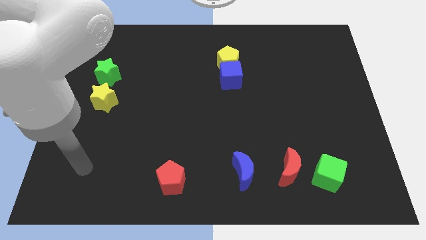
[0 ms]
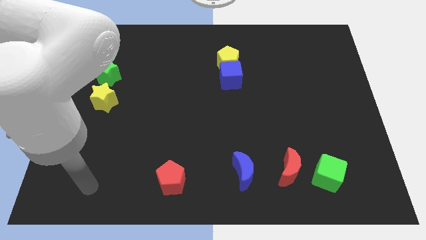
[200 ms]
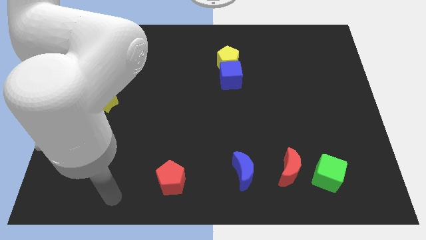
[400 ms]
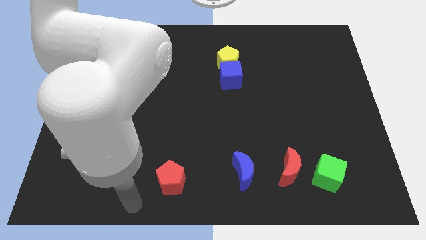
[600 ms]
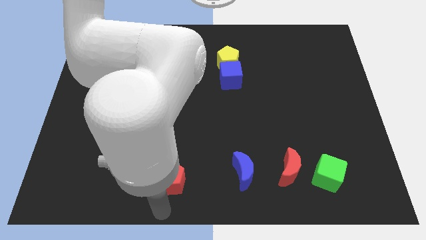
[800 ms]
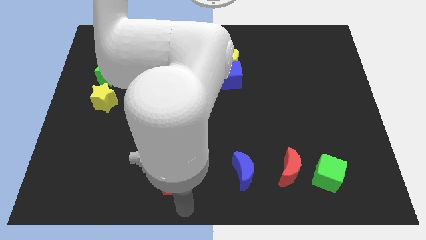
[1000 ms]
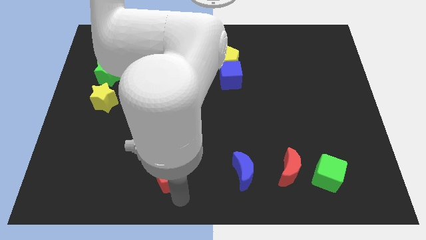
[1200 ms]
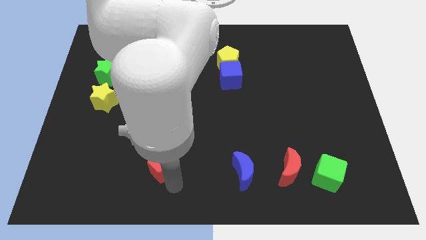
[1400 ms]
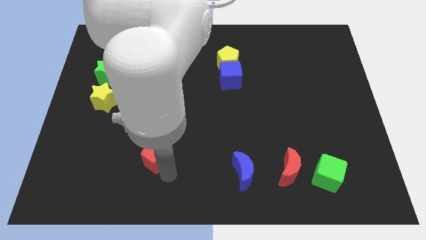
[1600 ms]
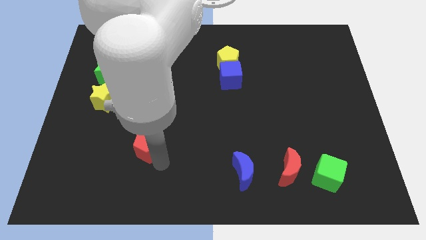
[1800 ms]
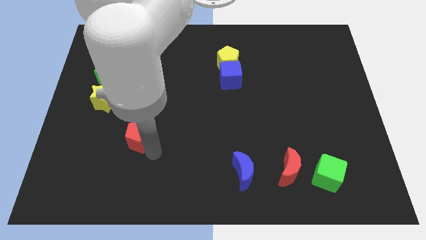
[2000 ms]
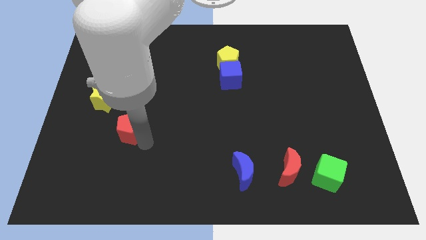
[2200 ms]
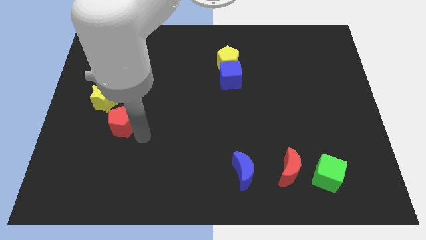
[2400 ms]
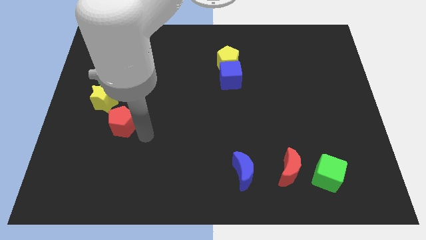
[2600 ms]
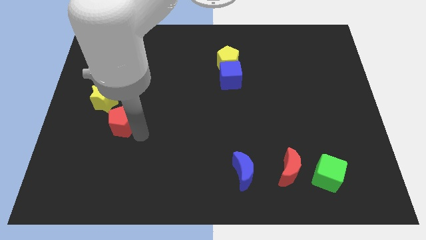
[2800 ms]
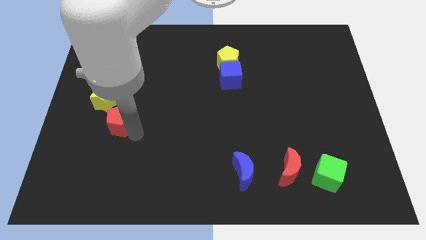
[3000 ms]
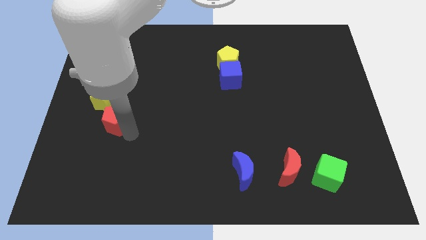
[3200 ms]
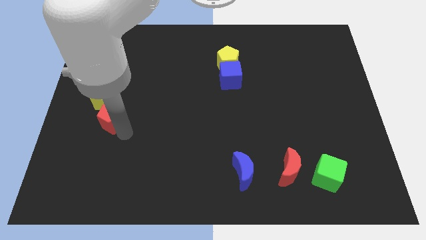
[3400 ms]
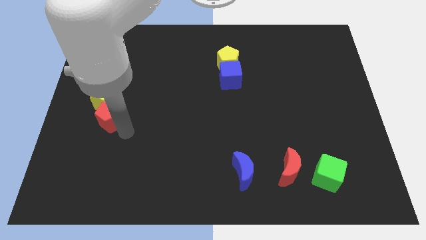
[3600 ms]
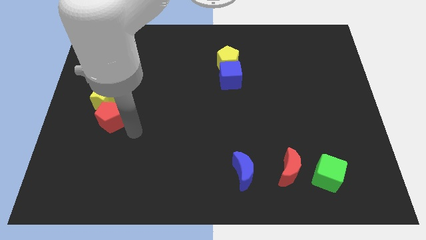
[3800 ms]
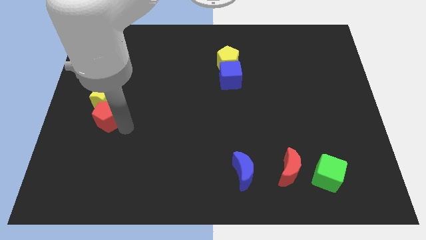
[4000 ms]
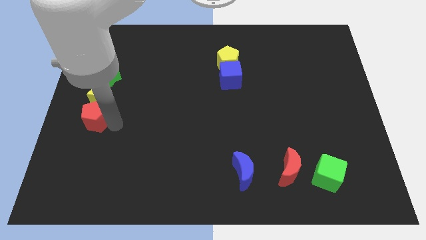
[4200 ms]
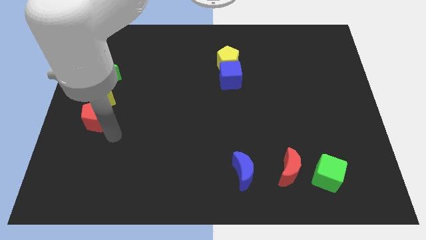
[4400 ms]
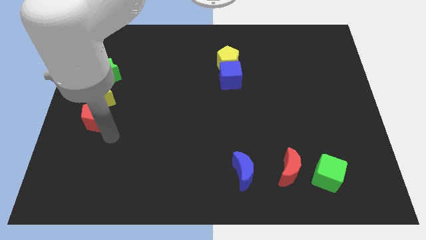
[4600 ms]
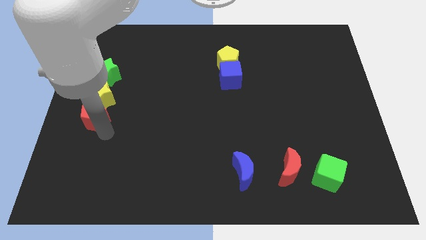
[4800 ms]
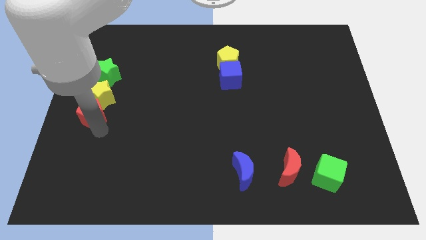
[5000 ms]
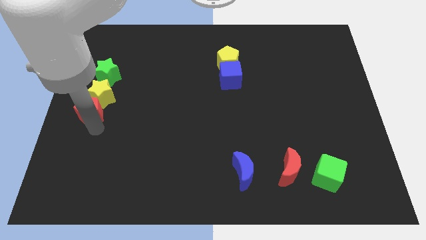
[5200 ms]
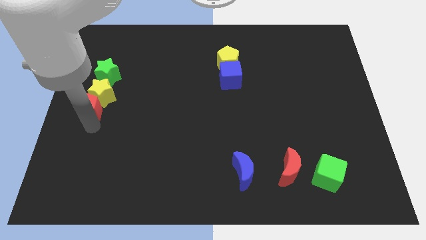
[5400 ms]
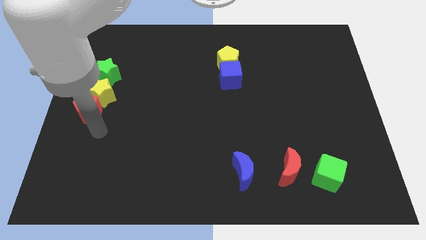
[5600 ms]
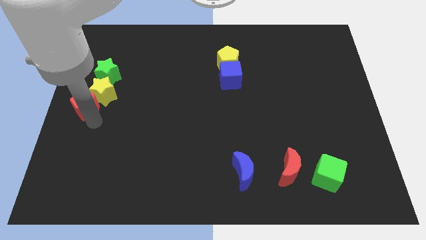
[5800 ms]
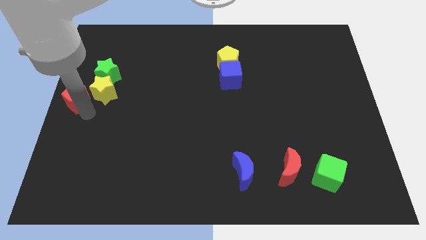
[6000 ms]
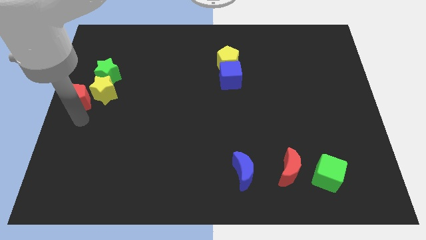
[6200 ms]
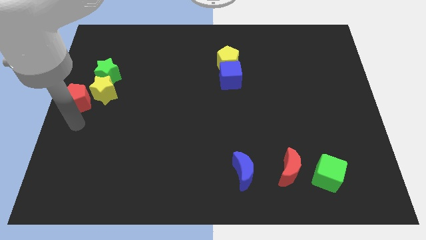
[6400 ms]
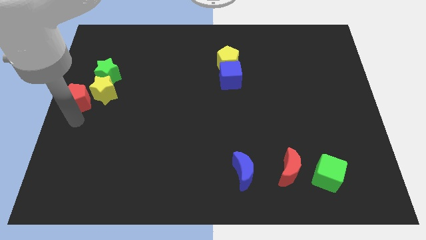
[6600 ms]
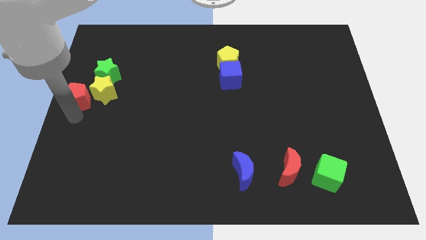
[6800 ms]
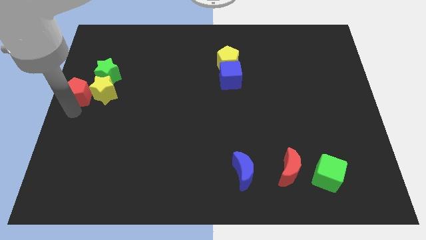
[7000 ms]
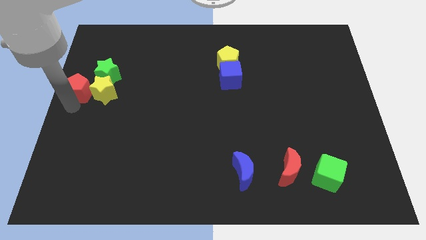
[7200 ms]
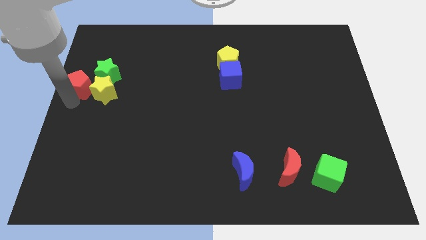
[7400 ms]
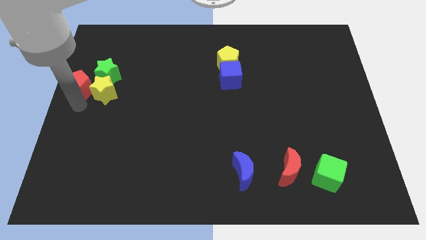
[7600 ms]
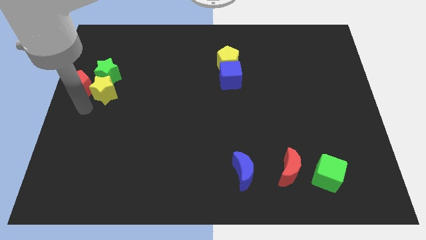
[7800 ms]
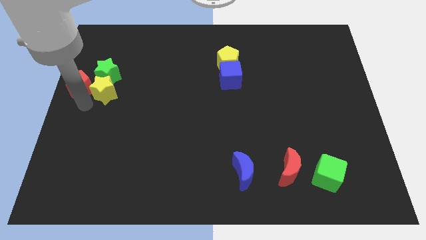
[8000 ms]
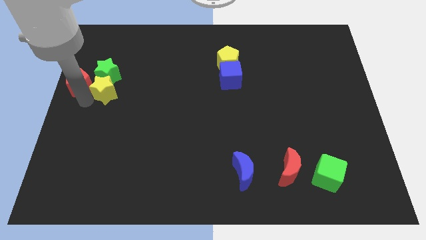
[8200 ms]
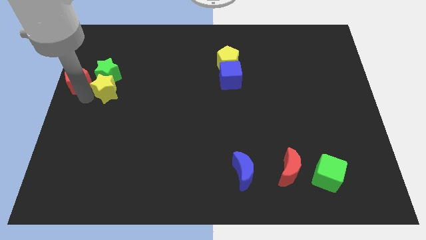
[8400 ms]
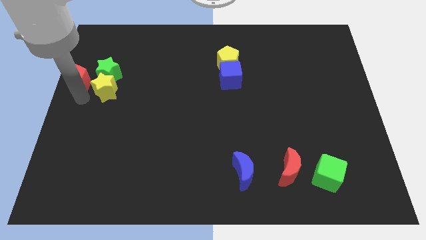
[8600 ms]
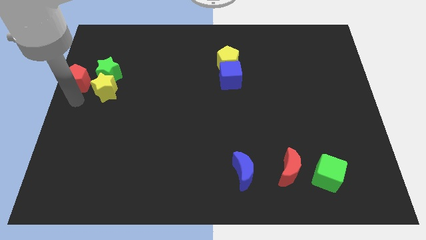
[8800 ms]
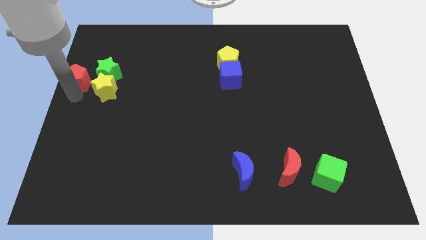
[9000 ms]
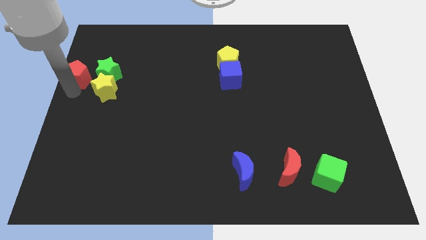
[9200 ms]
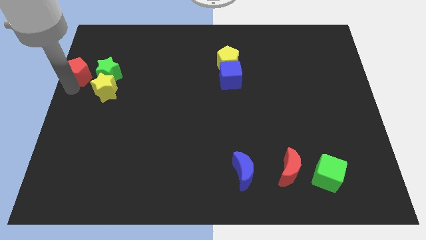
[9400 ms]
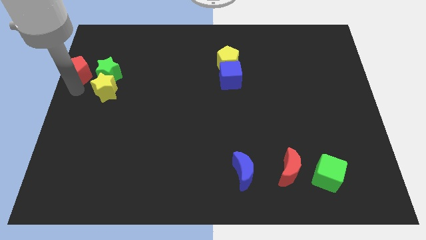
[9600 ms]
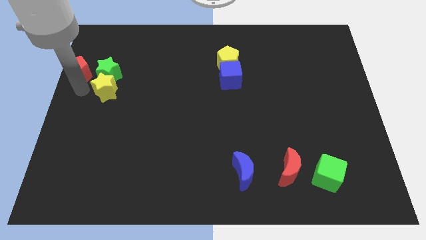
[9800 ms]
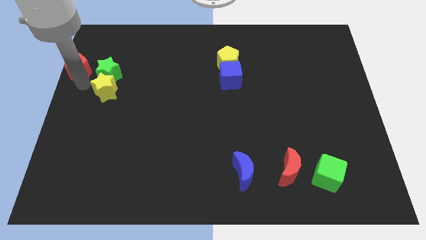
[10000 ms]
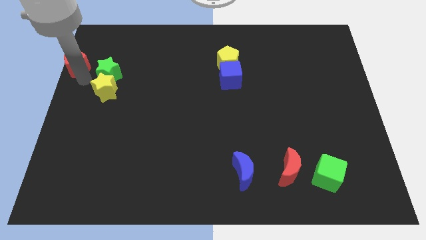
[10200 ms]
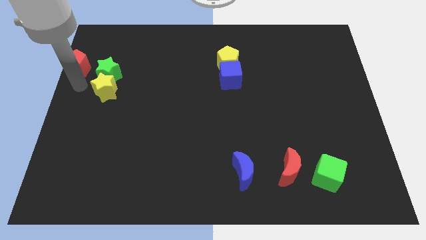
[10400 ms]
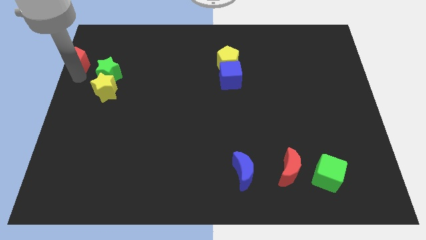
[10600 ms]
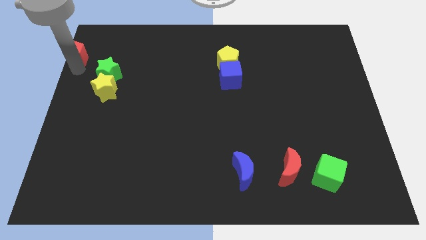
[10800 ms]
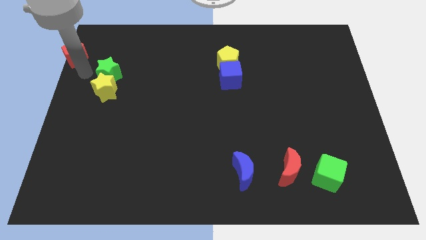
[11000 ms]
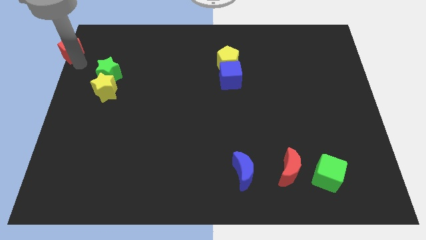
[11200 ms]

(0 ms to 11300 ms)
slide the red pentagon to the top left

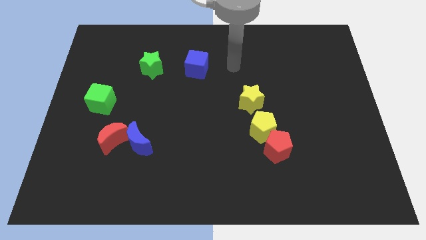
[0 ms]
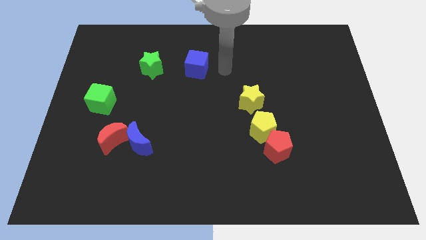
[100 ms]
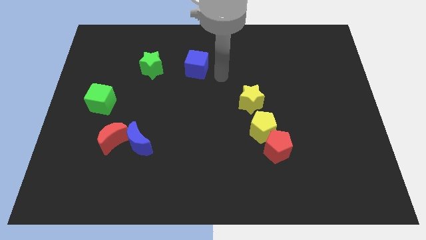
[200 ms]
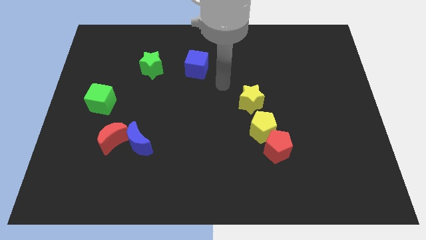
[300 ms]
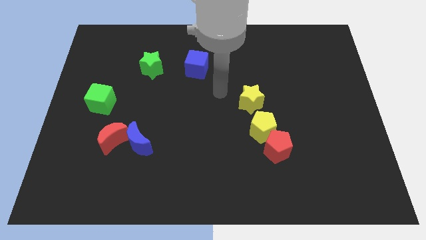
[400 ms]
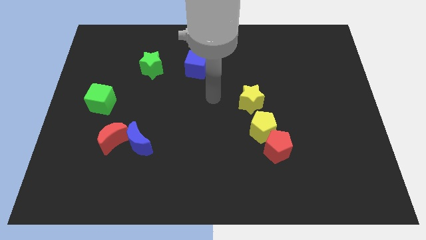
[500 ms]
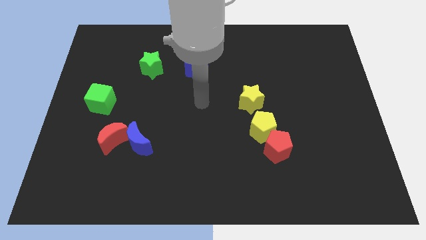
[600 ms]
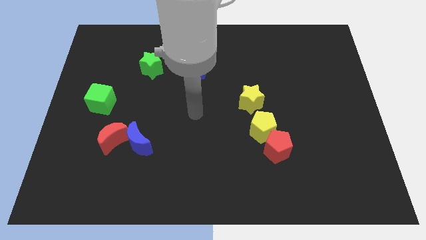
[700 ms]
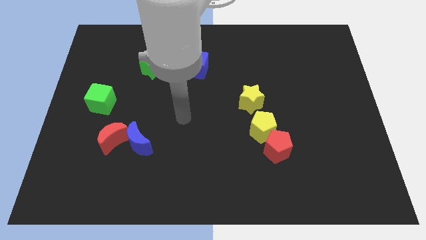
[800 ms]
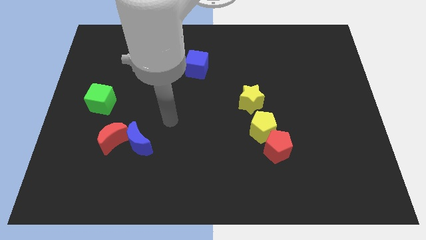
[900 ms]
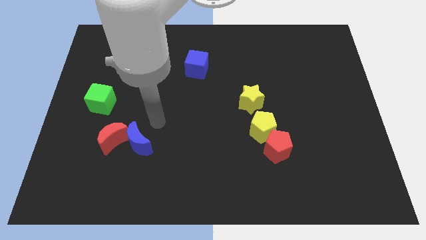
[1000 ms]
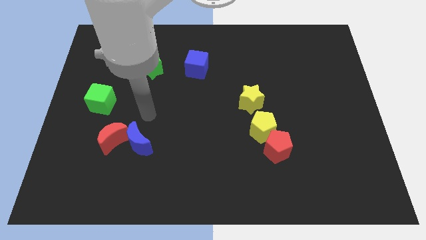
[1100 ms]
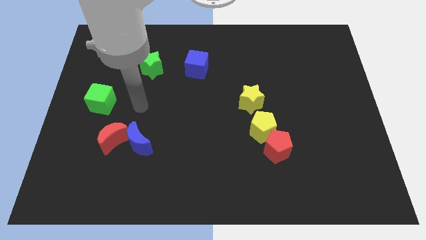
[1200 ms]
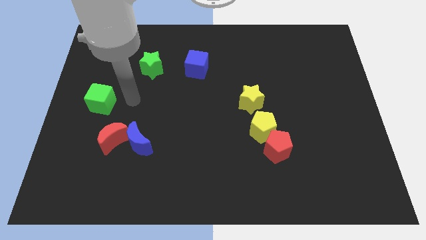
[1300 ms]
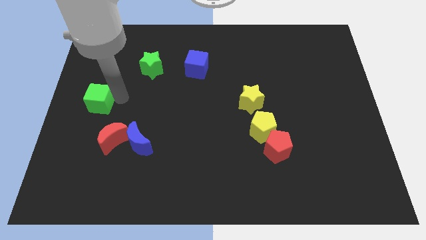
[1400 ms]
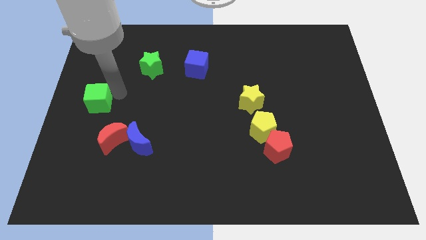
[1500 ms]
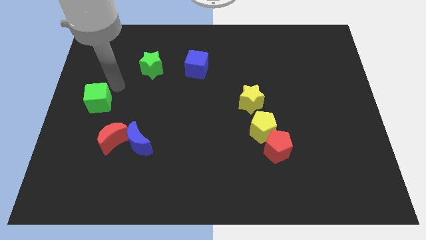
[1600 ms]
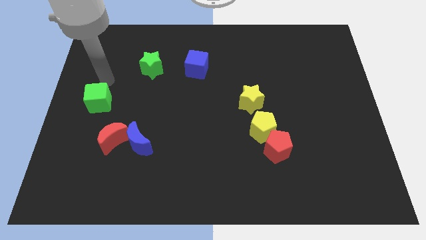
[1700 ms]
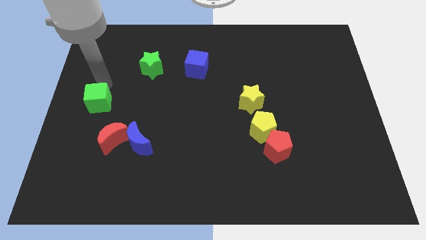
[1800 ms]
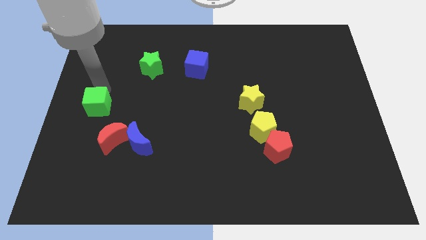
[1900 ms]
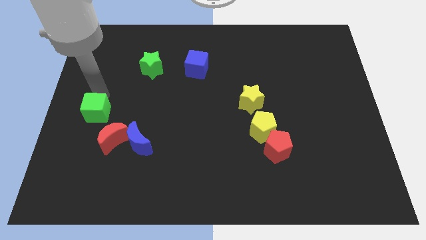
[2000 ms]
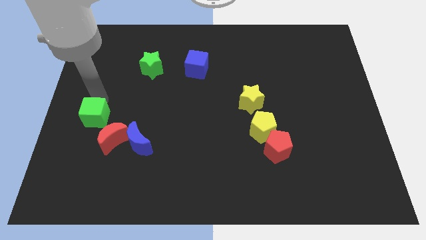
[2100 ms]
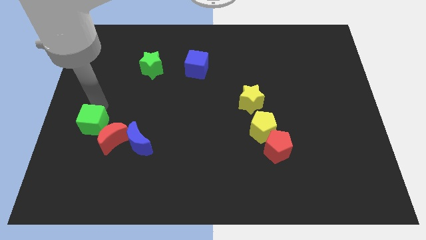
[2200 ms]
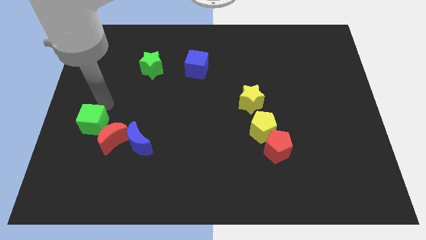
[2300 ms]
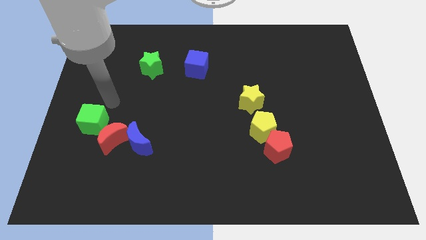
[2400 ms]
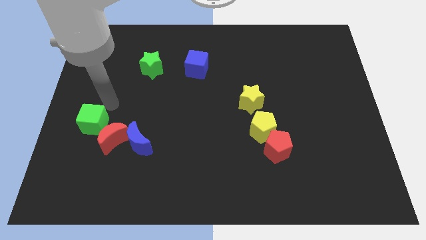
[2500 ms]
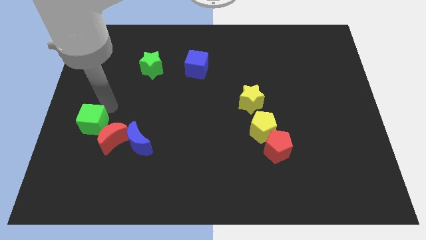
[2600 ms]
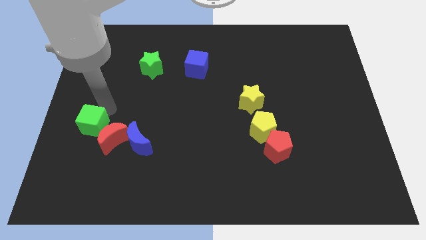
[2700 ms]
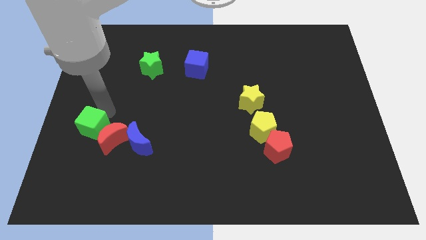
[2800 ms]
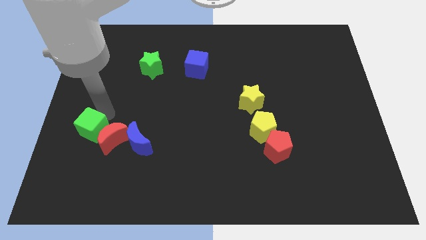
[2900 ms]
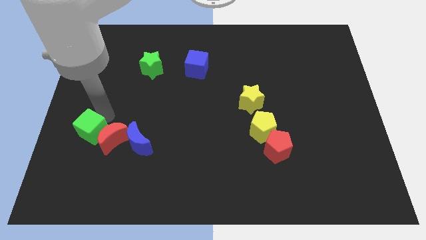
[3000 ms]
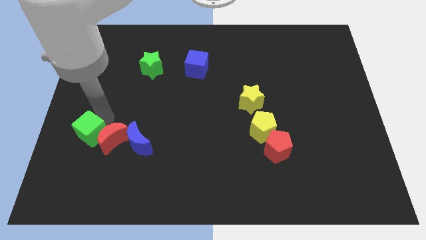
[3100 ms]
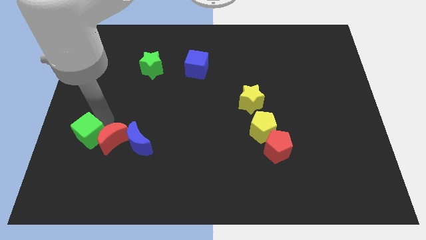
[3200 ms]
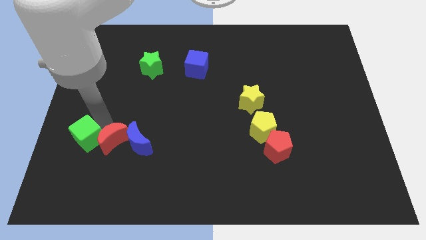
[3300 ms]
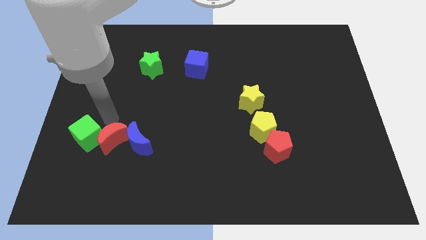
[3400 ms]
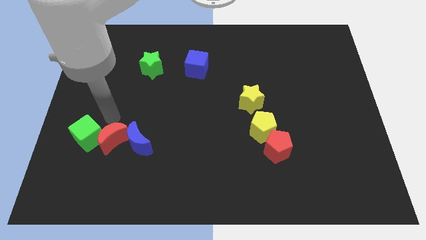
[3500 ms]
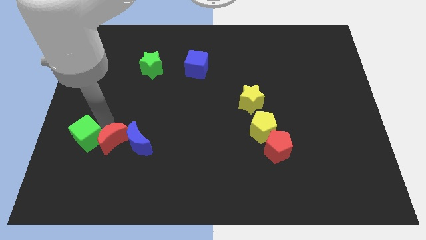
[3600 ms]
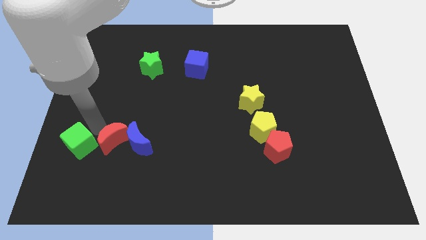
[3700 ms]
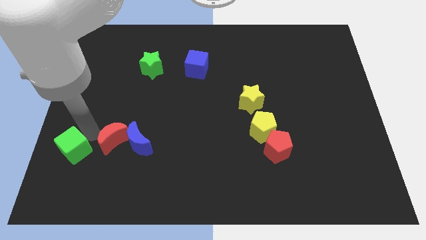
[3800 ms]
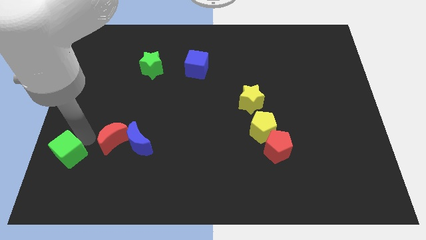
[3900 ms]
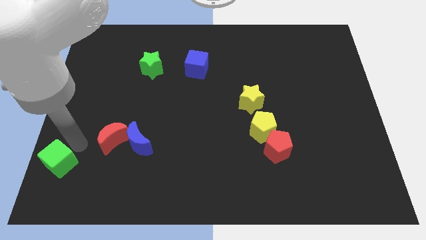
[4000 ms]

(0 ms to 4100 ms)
move the green cube to the lower left corner
